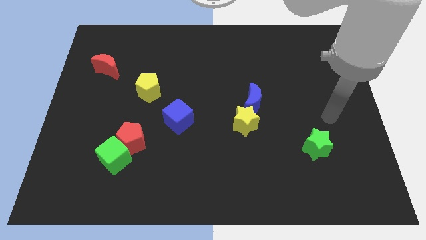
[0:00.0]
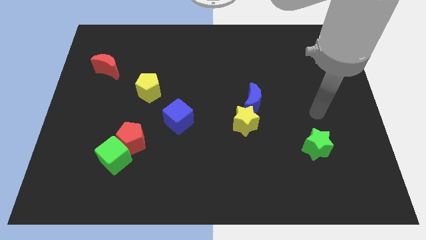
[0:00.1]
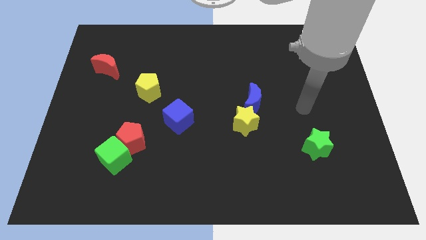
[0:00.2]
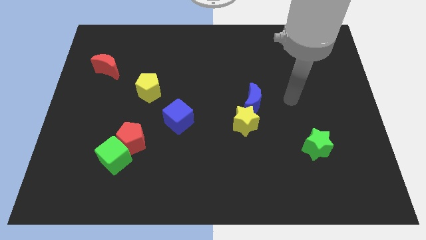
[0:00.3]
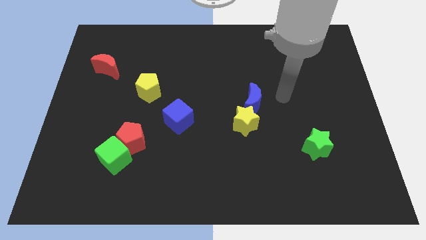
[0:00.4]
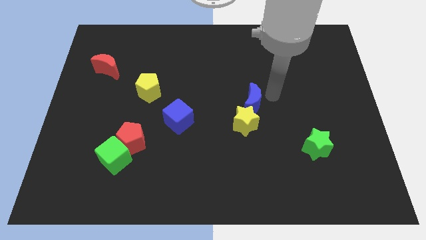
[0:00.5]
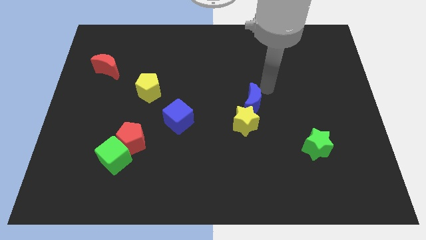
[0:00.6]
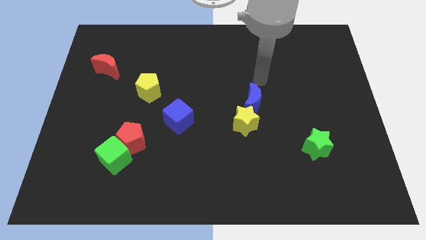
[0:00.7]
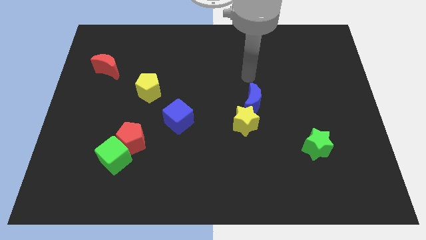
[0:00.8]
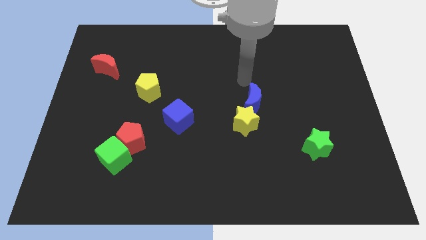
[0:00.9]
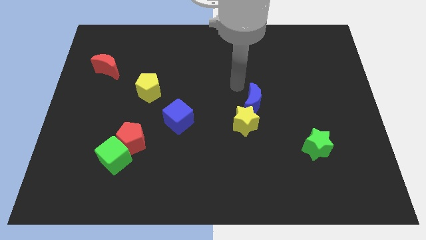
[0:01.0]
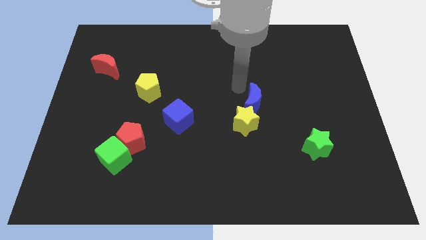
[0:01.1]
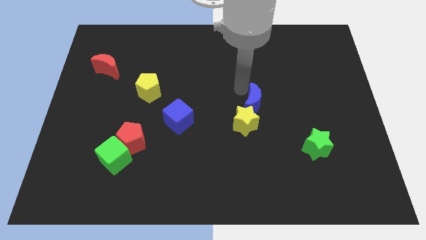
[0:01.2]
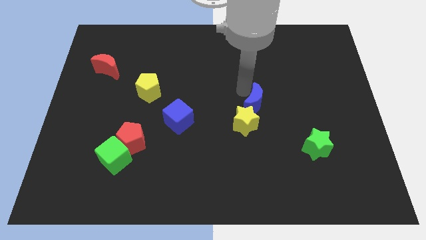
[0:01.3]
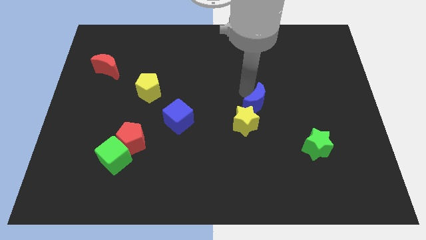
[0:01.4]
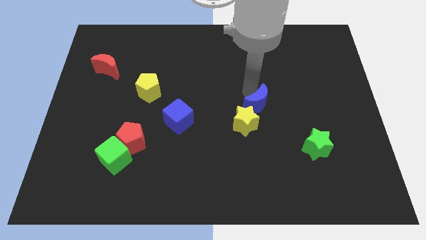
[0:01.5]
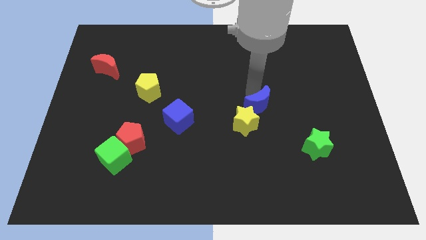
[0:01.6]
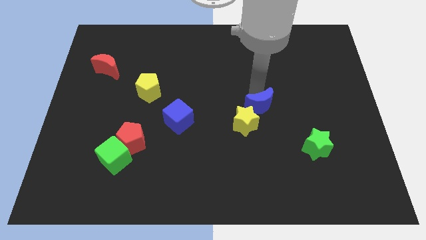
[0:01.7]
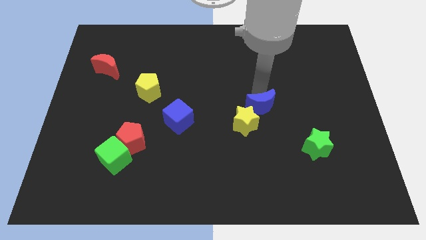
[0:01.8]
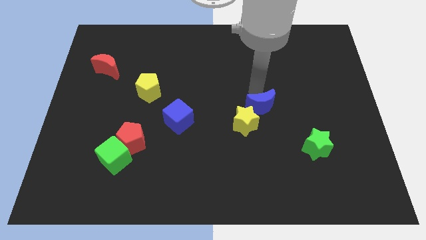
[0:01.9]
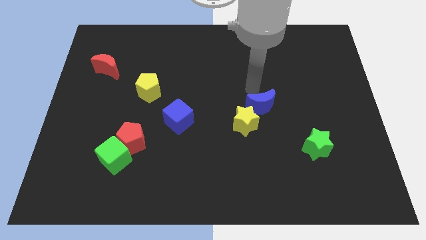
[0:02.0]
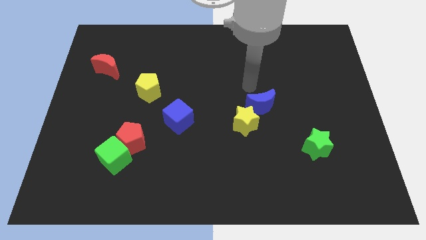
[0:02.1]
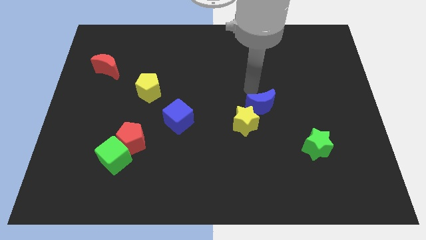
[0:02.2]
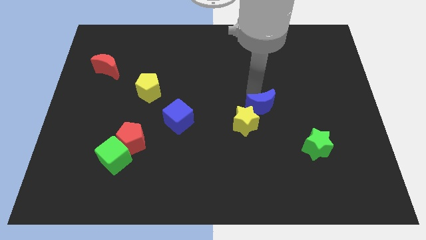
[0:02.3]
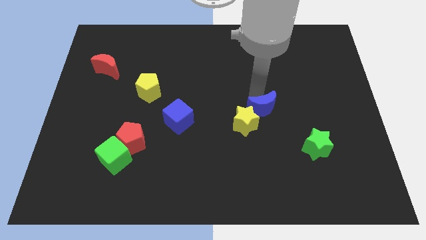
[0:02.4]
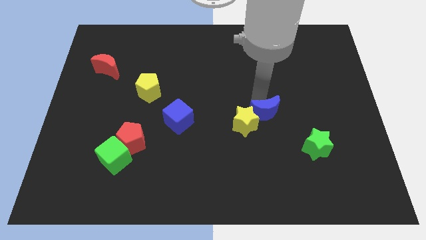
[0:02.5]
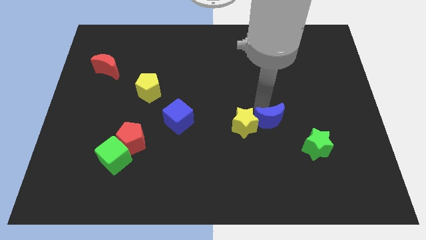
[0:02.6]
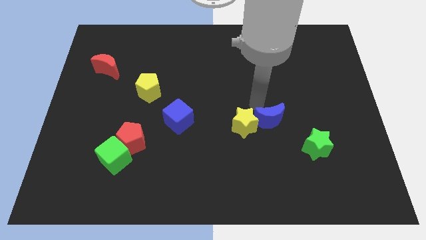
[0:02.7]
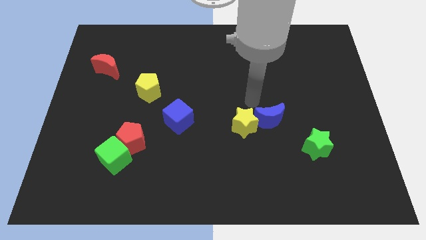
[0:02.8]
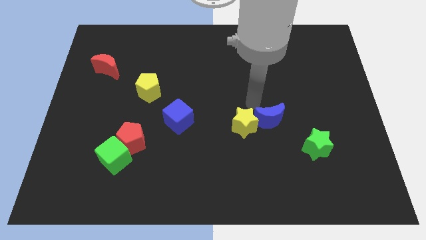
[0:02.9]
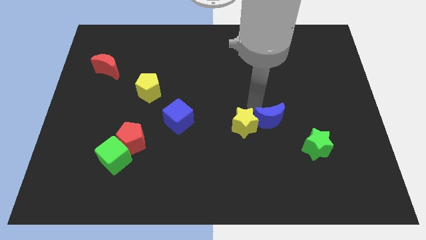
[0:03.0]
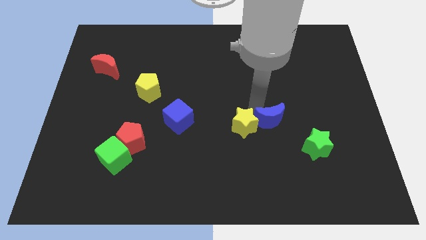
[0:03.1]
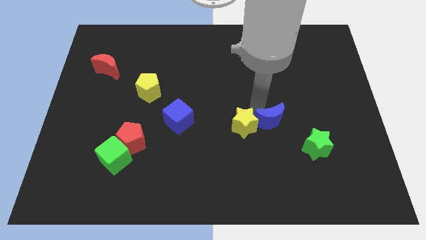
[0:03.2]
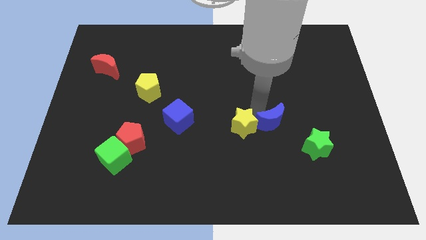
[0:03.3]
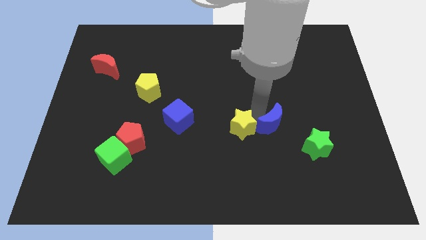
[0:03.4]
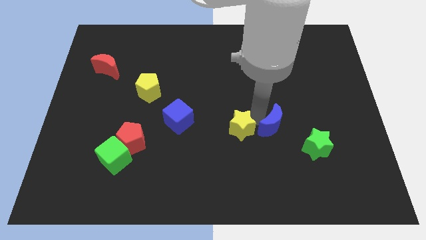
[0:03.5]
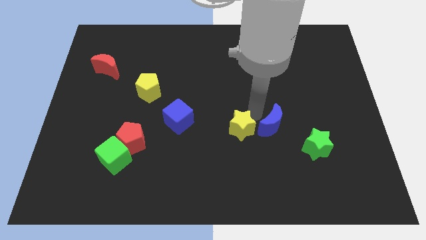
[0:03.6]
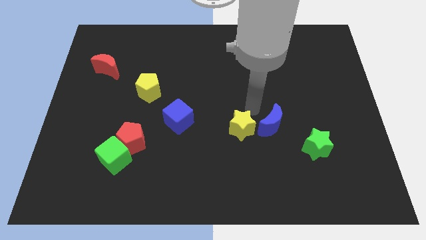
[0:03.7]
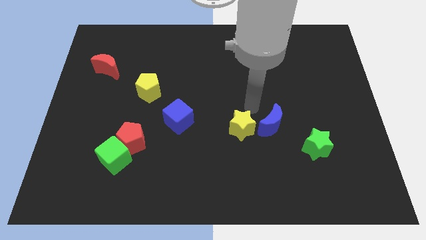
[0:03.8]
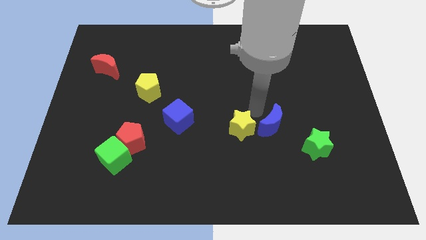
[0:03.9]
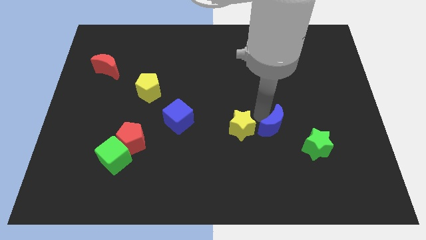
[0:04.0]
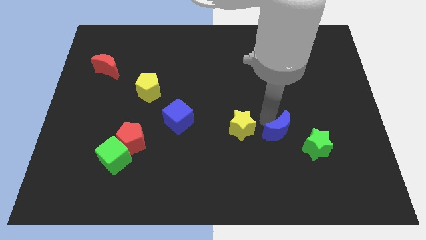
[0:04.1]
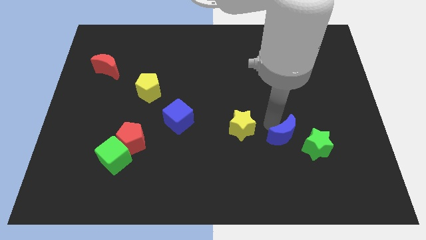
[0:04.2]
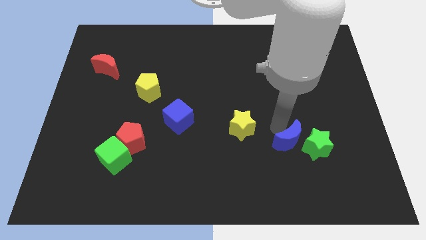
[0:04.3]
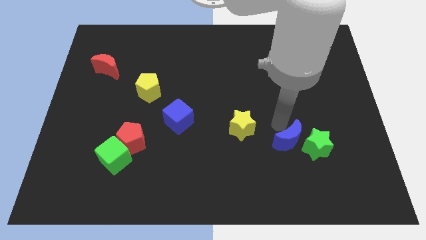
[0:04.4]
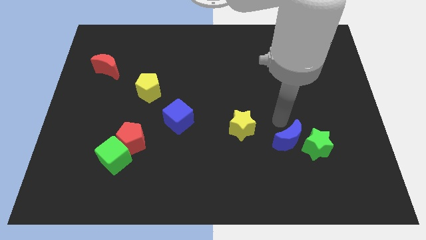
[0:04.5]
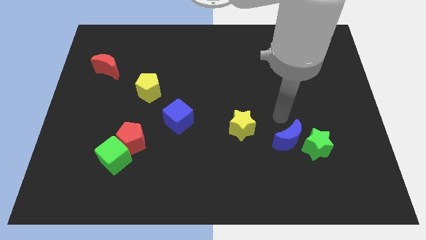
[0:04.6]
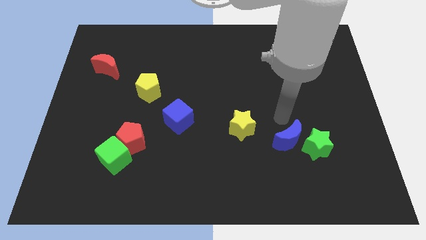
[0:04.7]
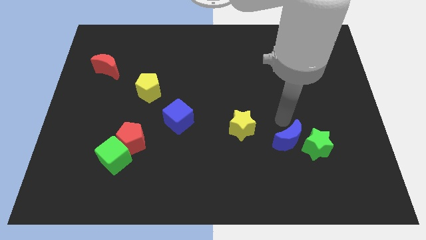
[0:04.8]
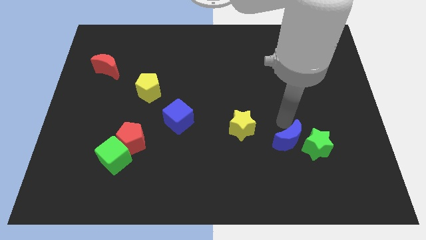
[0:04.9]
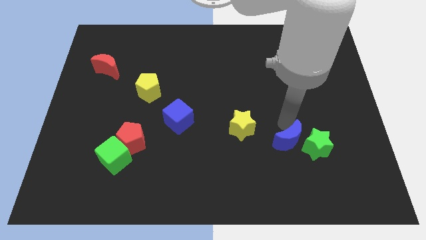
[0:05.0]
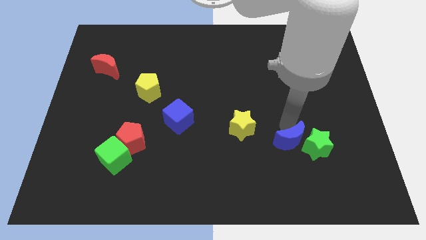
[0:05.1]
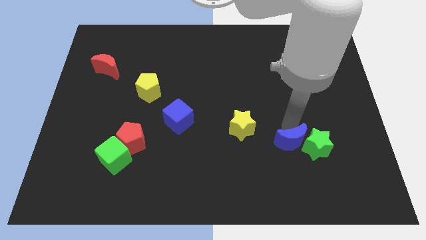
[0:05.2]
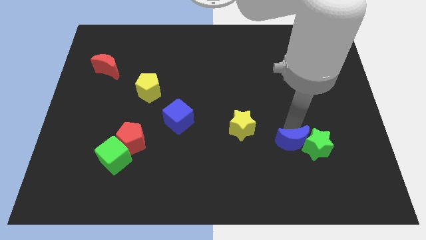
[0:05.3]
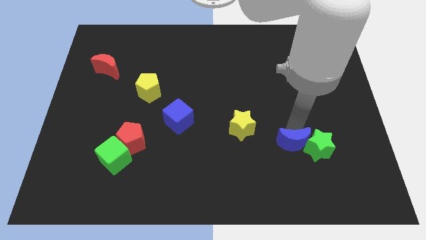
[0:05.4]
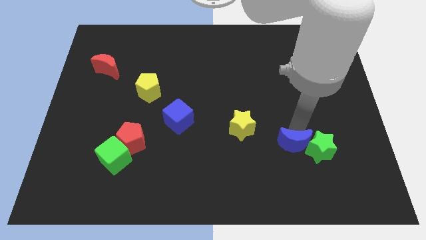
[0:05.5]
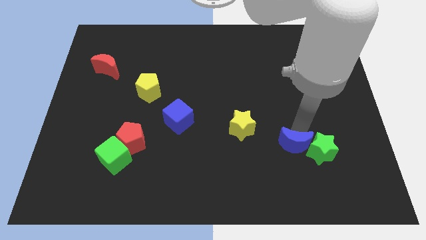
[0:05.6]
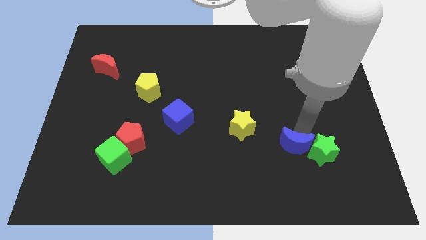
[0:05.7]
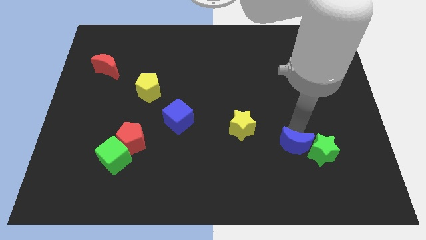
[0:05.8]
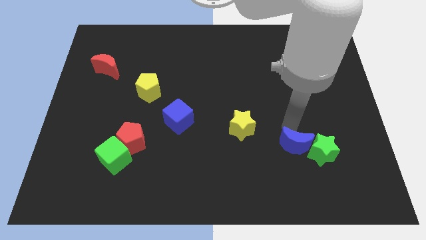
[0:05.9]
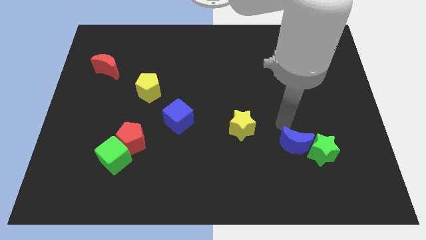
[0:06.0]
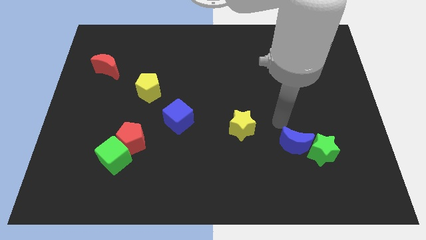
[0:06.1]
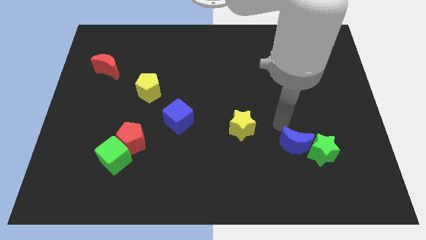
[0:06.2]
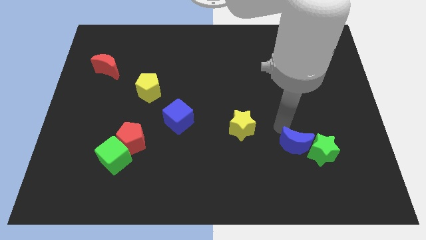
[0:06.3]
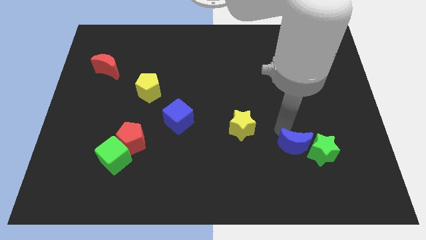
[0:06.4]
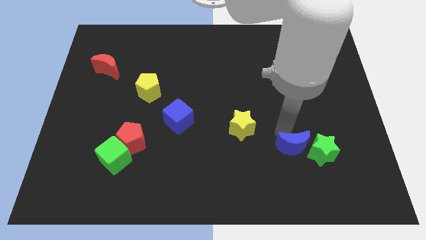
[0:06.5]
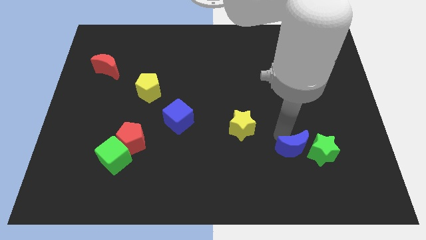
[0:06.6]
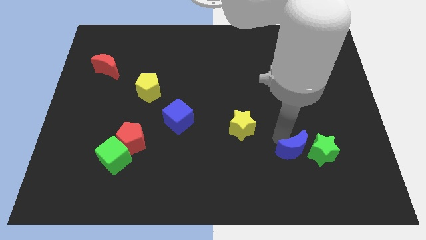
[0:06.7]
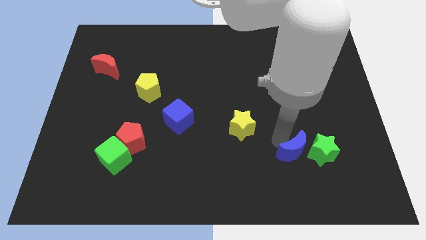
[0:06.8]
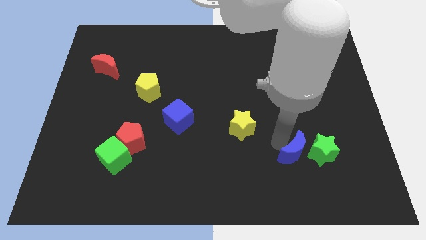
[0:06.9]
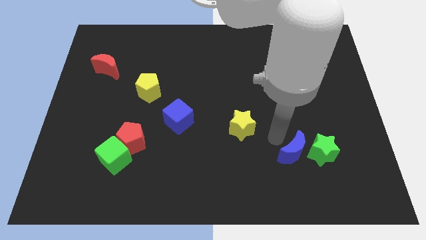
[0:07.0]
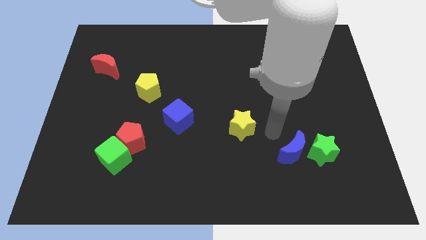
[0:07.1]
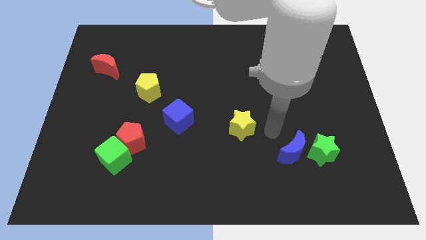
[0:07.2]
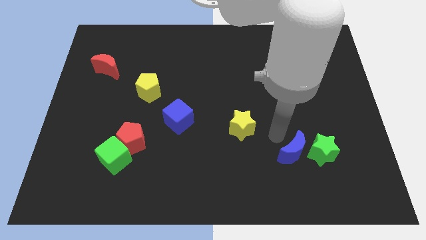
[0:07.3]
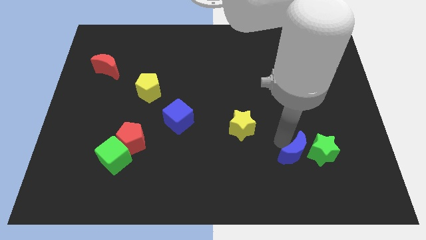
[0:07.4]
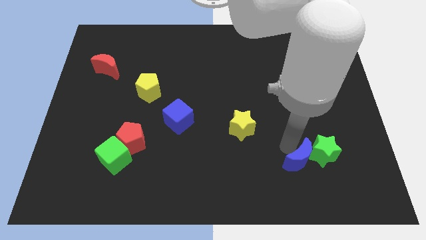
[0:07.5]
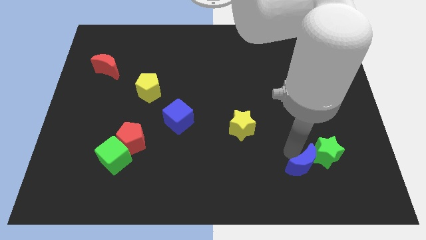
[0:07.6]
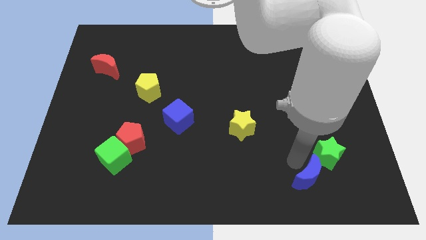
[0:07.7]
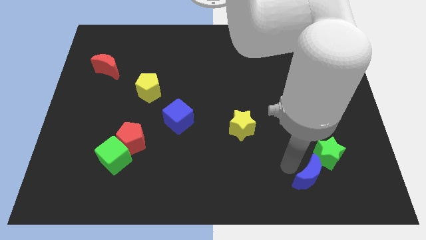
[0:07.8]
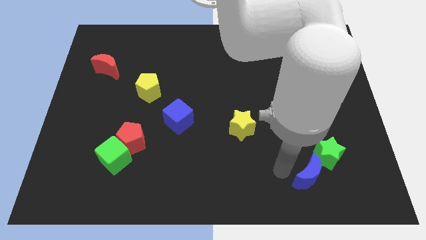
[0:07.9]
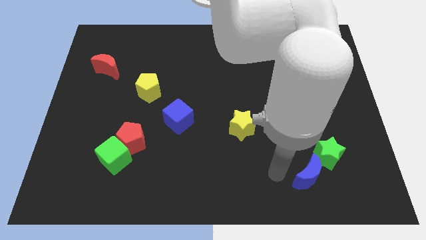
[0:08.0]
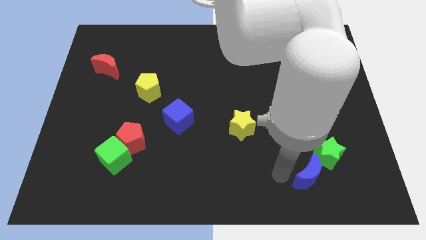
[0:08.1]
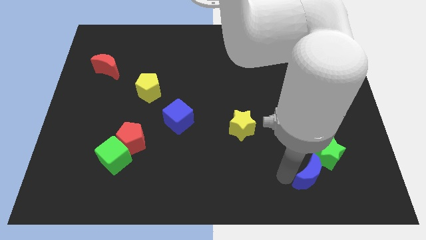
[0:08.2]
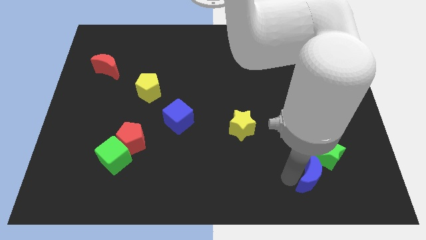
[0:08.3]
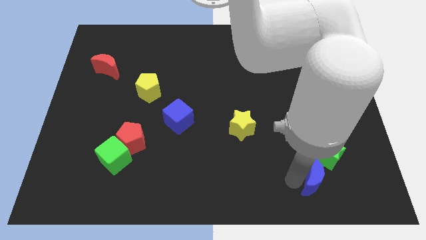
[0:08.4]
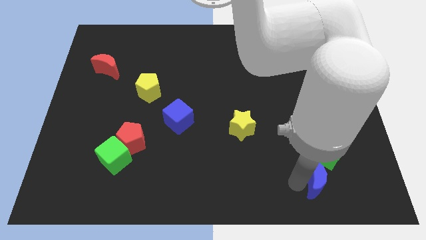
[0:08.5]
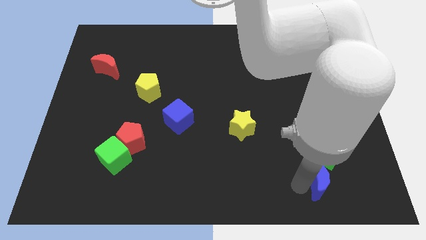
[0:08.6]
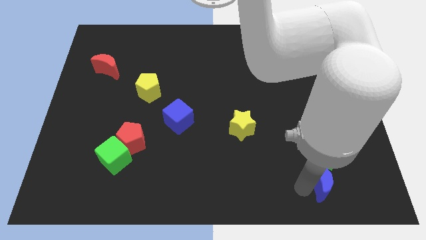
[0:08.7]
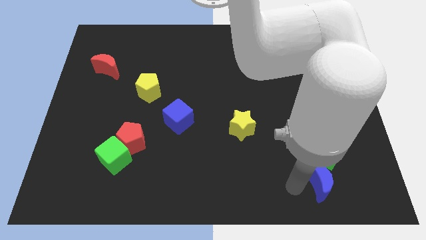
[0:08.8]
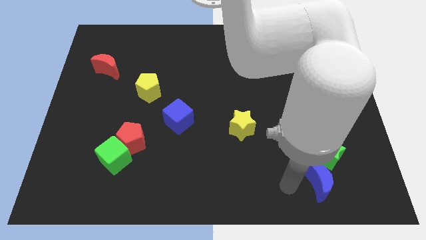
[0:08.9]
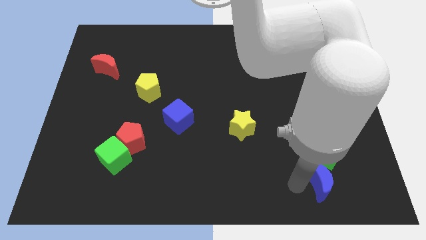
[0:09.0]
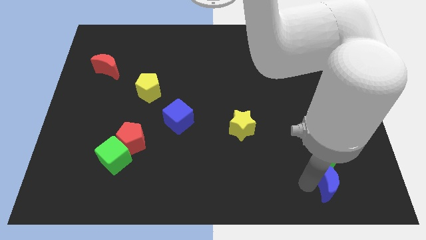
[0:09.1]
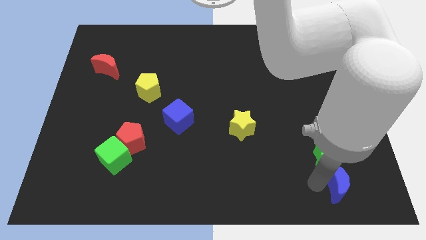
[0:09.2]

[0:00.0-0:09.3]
move the blue moon to the bottom right of the green star
